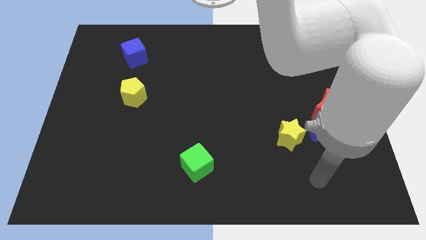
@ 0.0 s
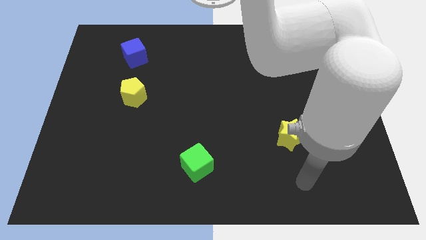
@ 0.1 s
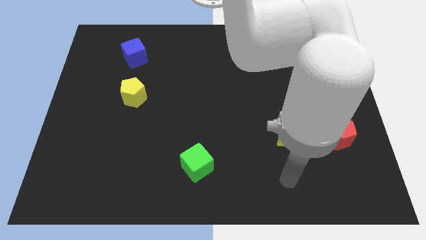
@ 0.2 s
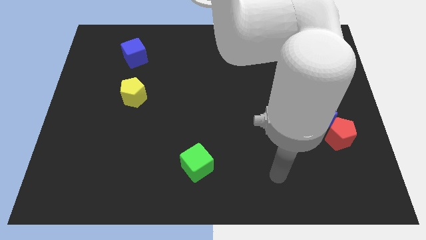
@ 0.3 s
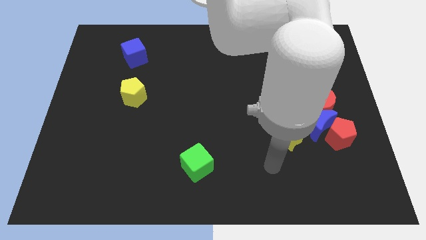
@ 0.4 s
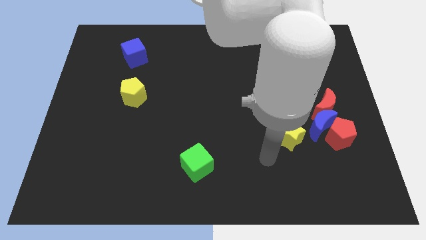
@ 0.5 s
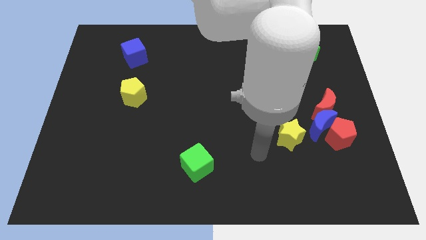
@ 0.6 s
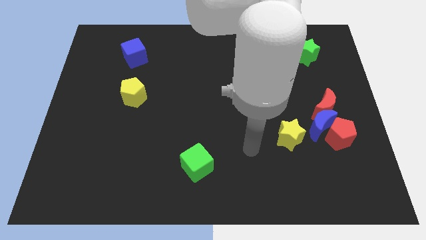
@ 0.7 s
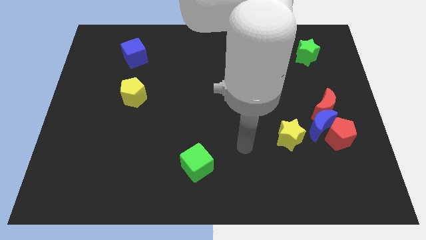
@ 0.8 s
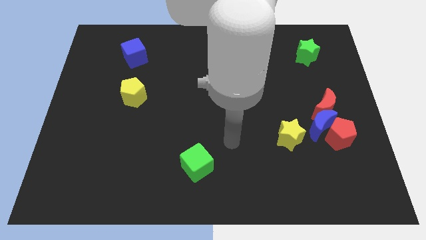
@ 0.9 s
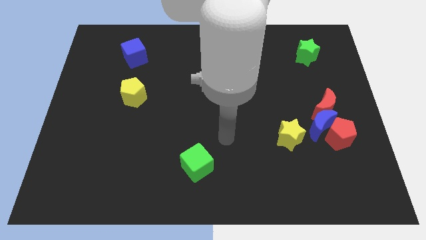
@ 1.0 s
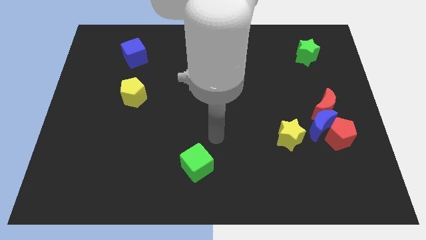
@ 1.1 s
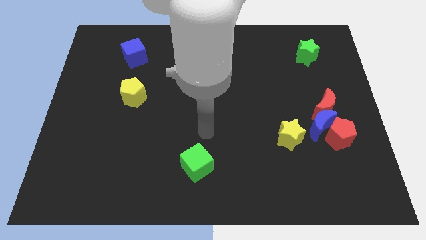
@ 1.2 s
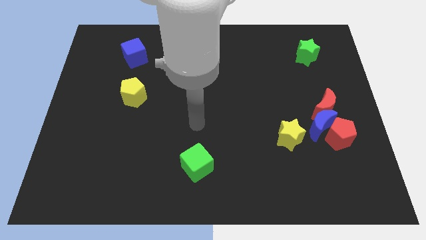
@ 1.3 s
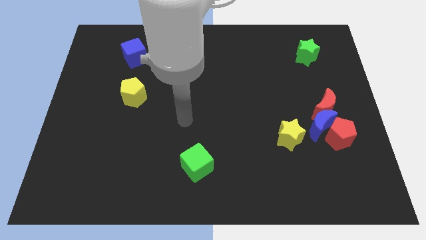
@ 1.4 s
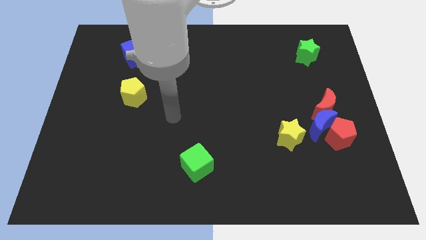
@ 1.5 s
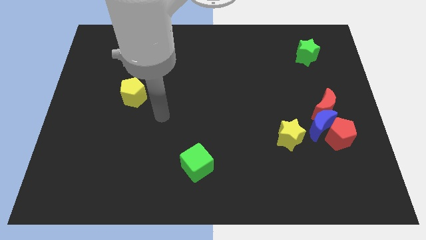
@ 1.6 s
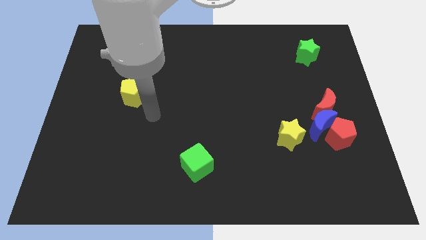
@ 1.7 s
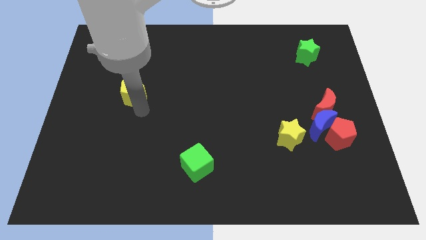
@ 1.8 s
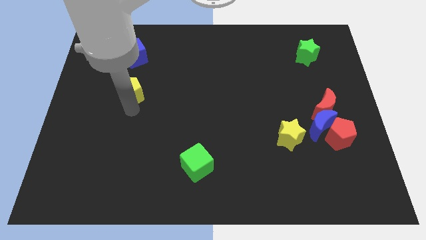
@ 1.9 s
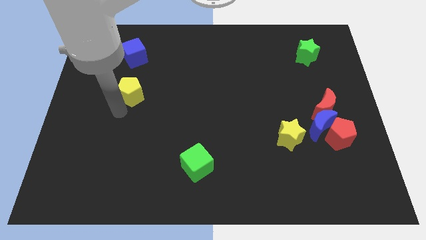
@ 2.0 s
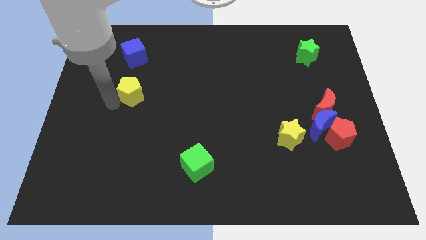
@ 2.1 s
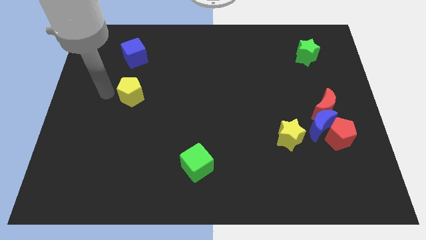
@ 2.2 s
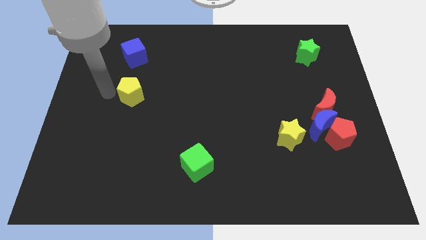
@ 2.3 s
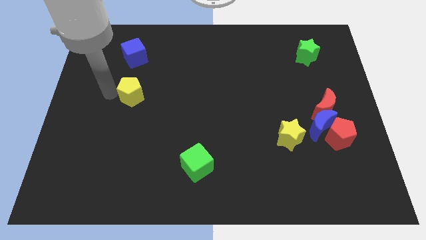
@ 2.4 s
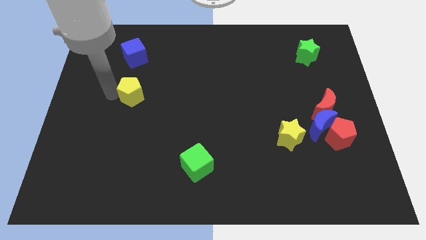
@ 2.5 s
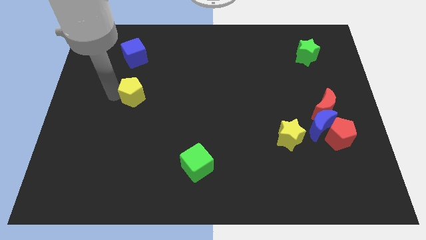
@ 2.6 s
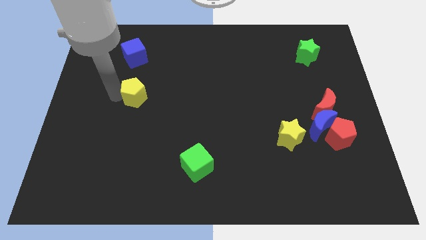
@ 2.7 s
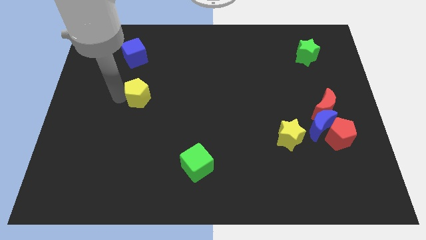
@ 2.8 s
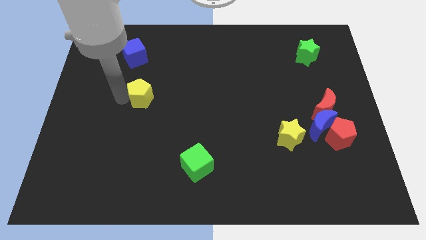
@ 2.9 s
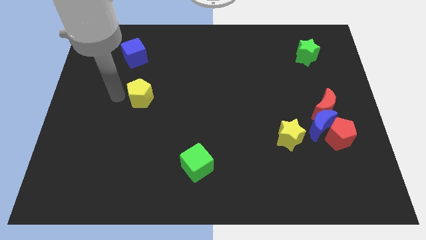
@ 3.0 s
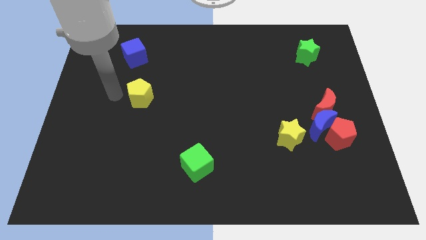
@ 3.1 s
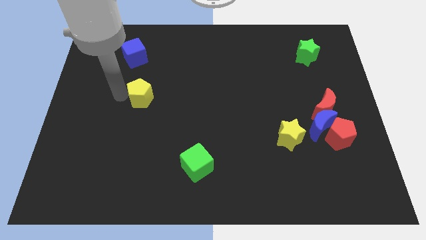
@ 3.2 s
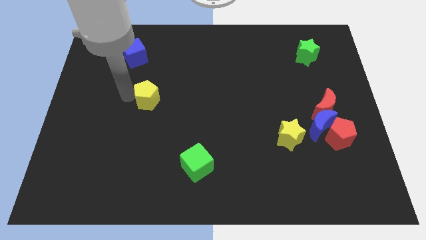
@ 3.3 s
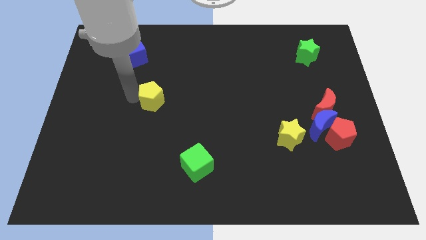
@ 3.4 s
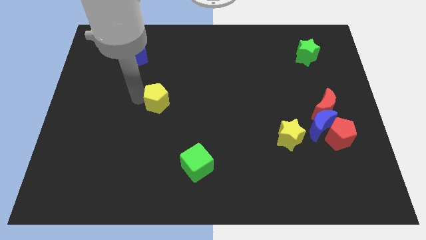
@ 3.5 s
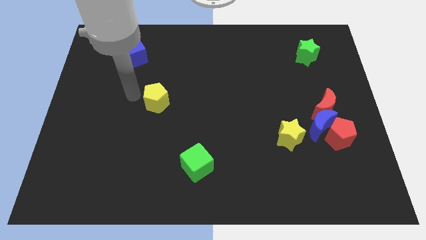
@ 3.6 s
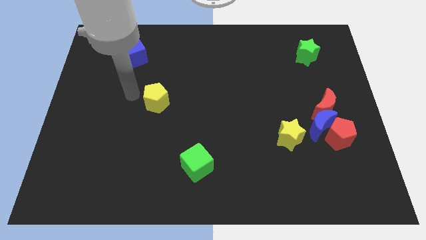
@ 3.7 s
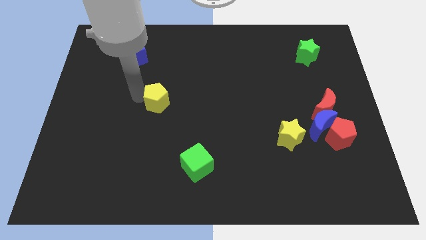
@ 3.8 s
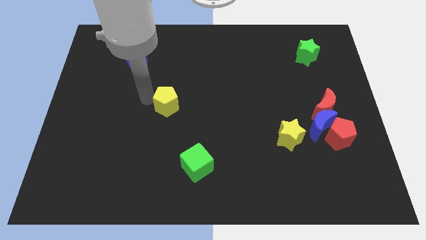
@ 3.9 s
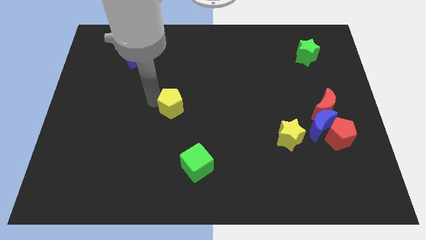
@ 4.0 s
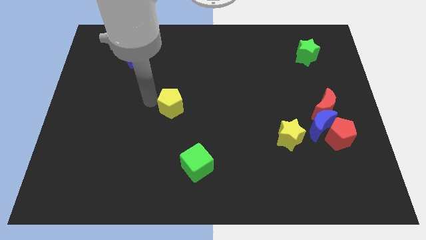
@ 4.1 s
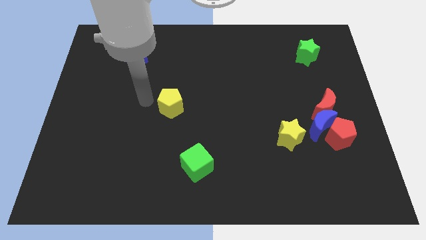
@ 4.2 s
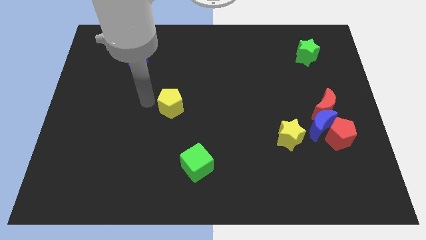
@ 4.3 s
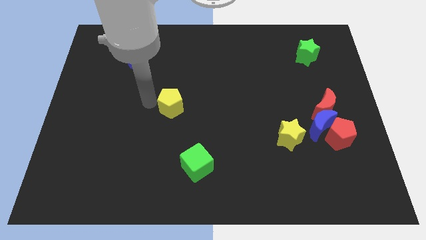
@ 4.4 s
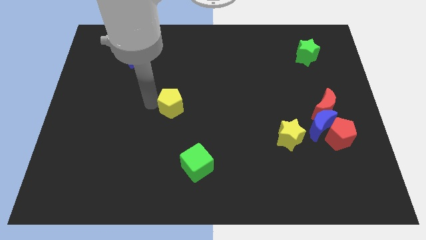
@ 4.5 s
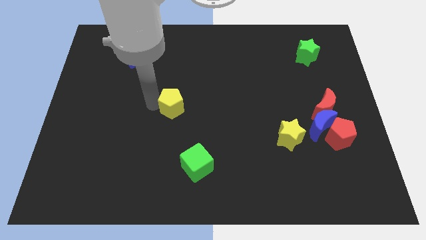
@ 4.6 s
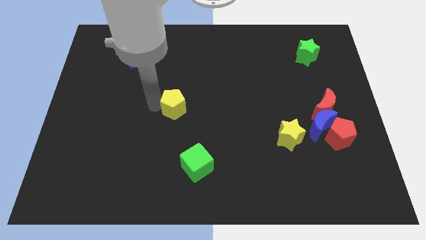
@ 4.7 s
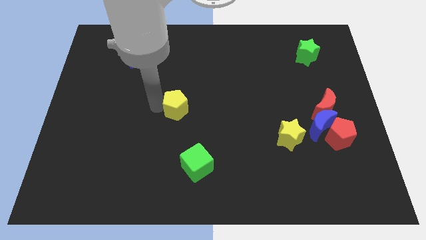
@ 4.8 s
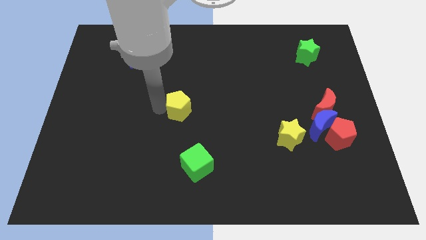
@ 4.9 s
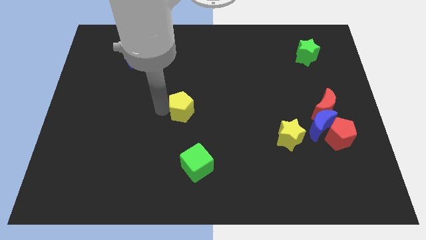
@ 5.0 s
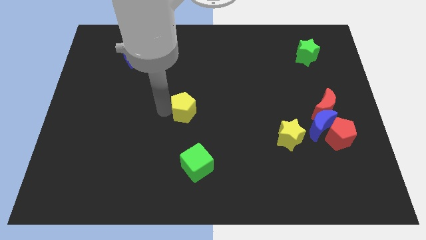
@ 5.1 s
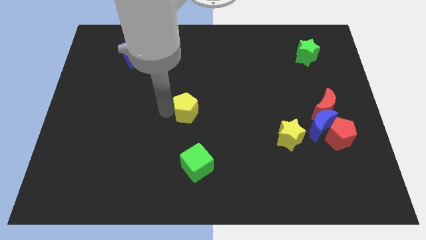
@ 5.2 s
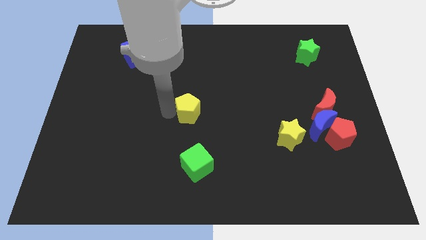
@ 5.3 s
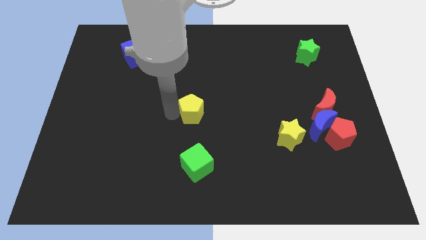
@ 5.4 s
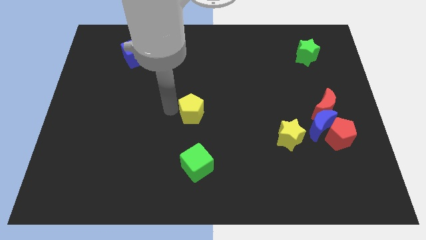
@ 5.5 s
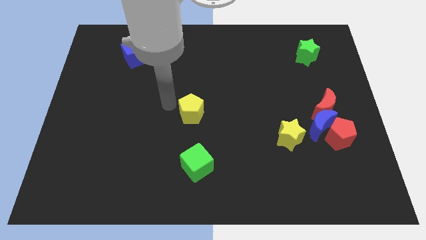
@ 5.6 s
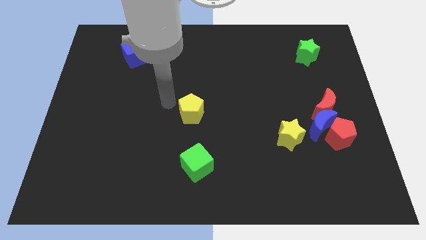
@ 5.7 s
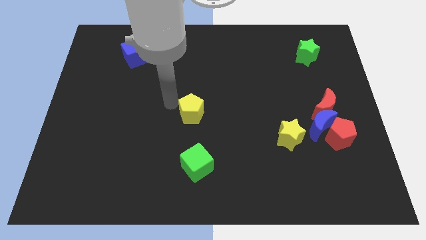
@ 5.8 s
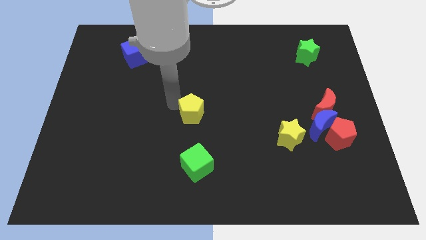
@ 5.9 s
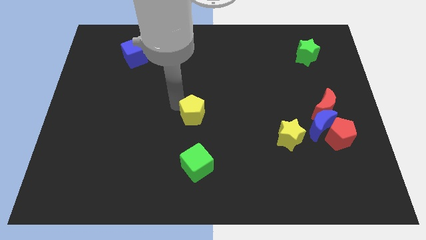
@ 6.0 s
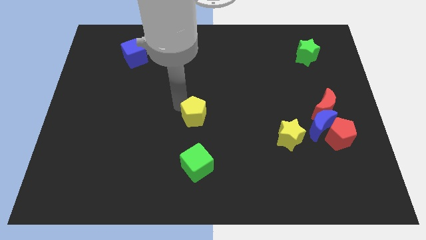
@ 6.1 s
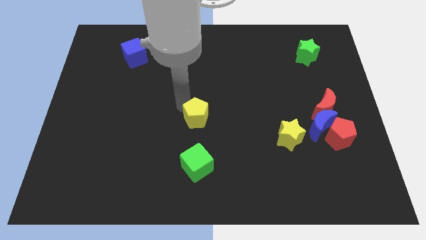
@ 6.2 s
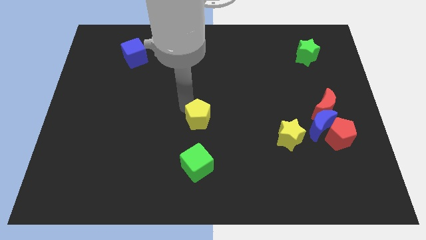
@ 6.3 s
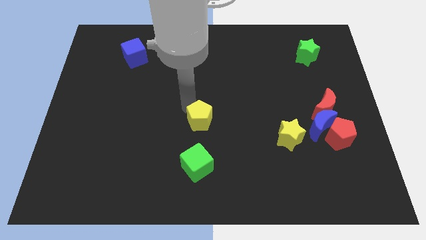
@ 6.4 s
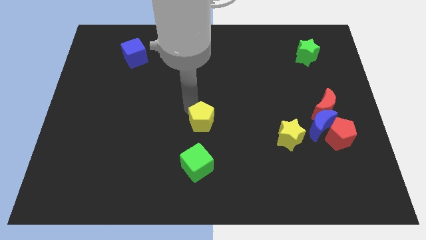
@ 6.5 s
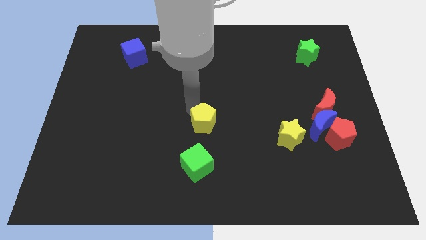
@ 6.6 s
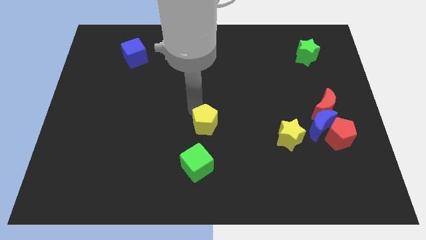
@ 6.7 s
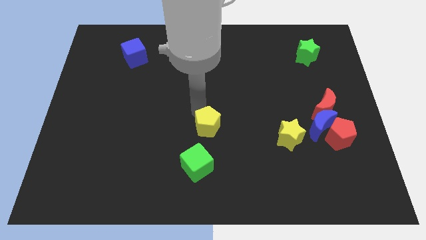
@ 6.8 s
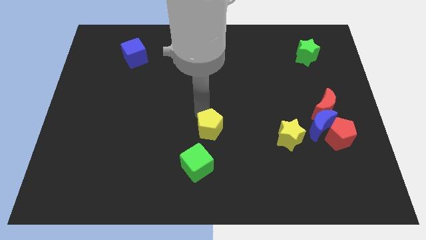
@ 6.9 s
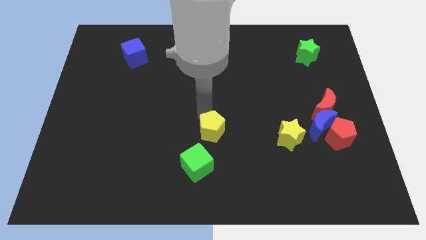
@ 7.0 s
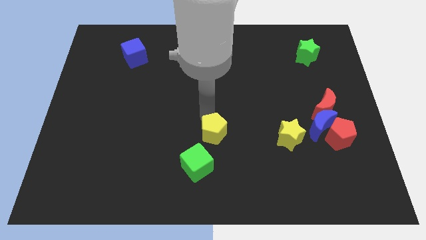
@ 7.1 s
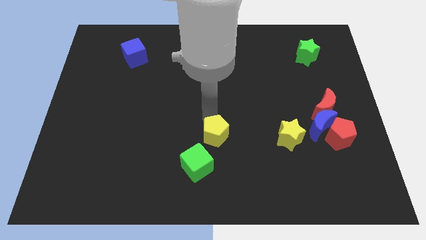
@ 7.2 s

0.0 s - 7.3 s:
push the yellow pentagon left of the yellow star
